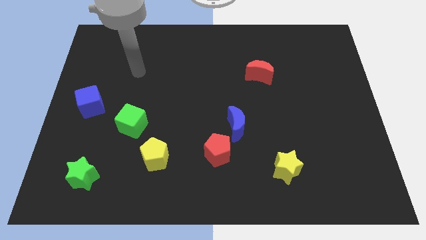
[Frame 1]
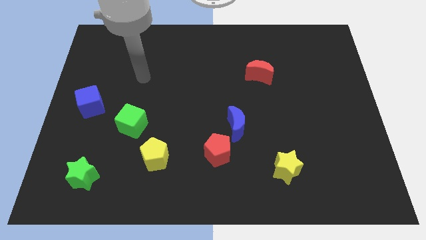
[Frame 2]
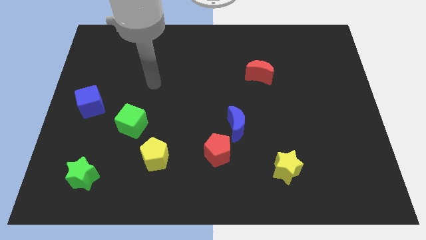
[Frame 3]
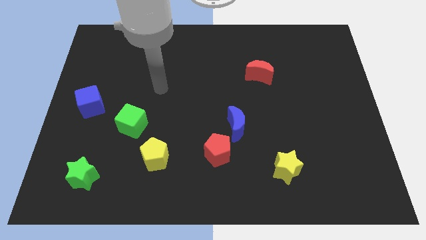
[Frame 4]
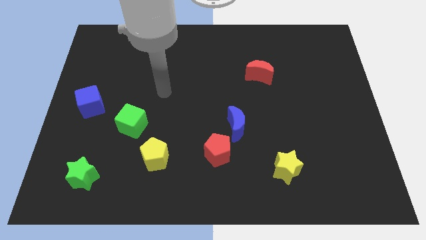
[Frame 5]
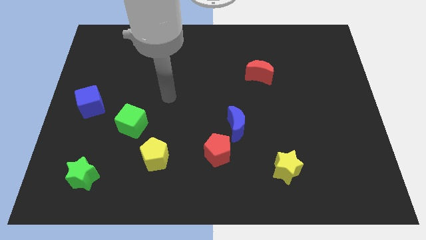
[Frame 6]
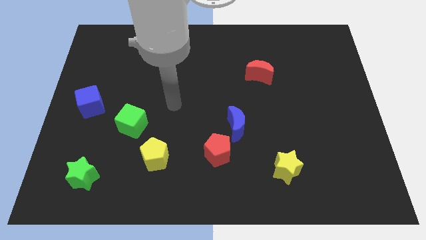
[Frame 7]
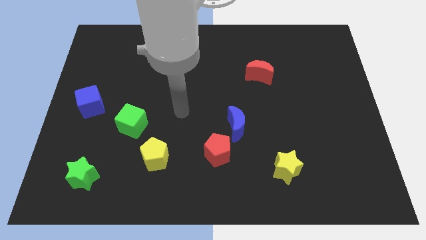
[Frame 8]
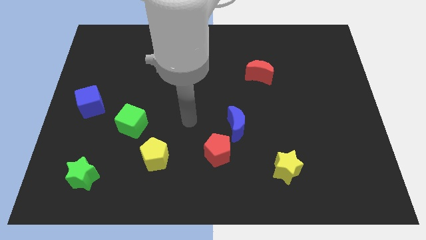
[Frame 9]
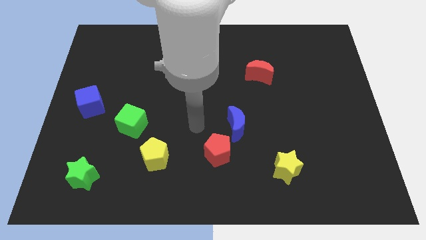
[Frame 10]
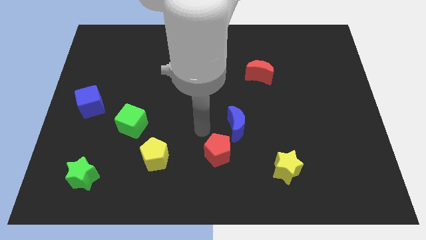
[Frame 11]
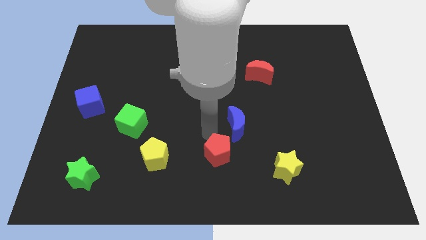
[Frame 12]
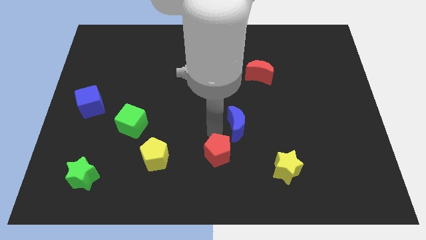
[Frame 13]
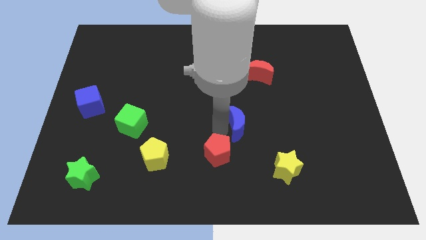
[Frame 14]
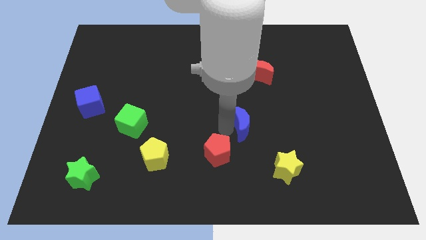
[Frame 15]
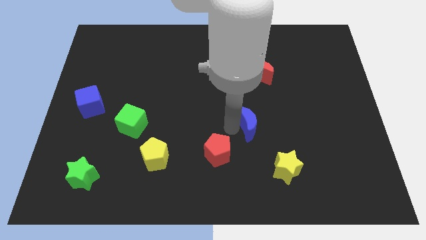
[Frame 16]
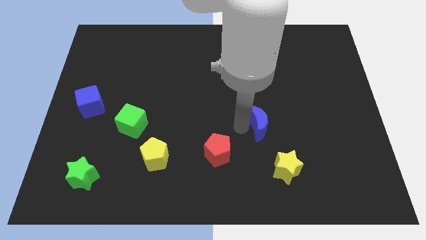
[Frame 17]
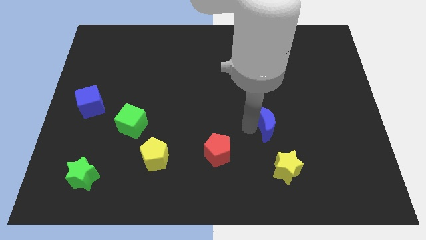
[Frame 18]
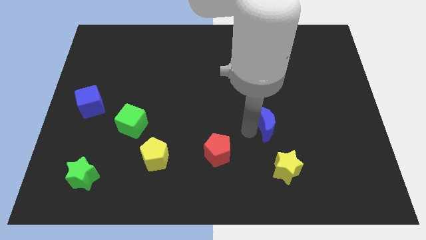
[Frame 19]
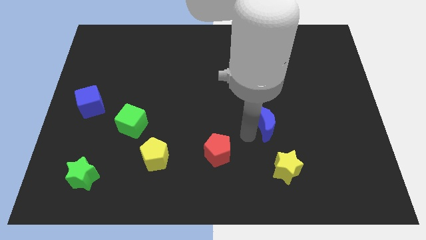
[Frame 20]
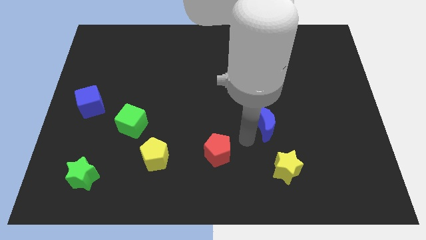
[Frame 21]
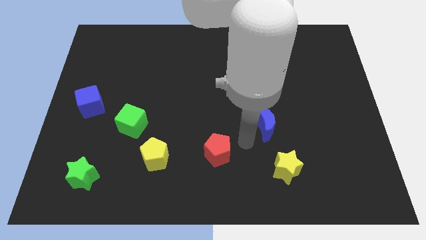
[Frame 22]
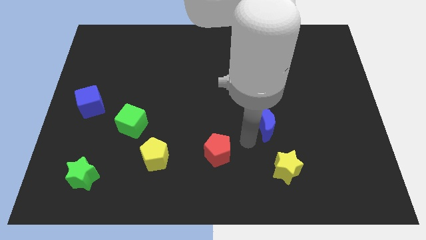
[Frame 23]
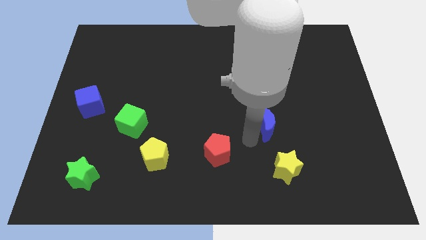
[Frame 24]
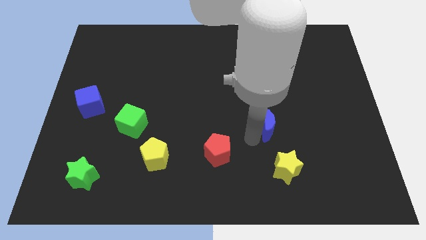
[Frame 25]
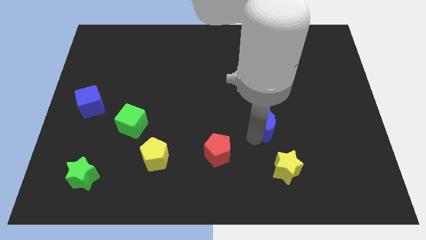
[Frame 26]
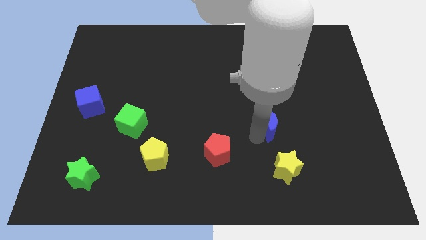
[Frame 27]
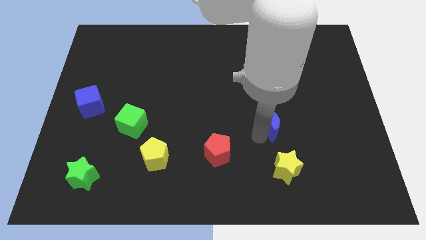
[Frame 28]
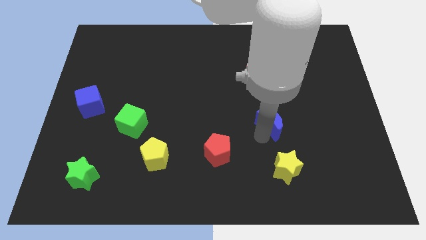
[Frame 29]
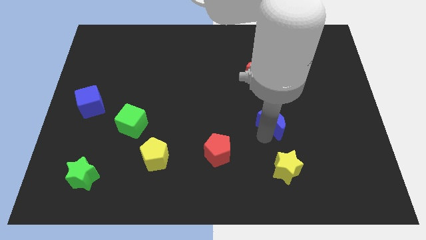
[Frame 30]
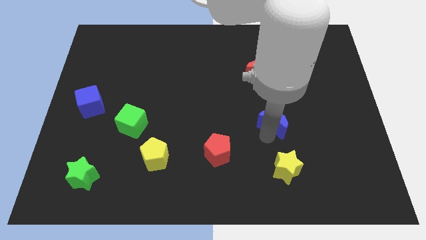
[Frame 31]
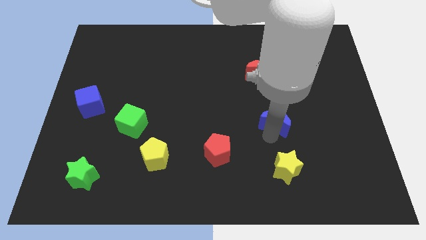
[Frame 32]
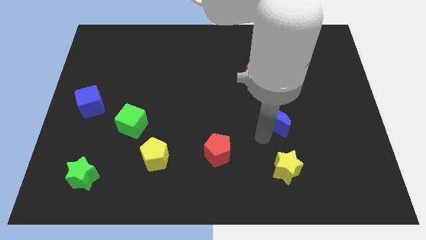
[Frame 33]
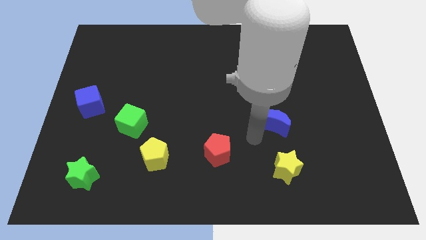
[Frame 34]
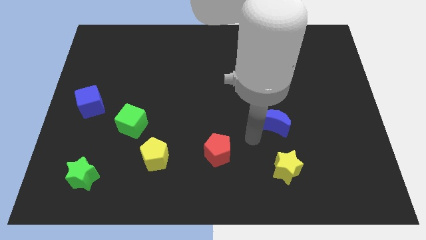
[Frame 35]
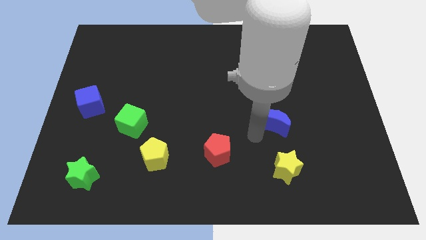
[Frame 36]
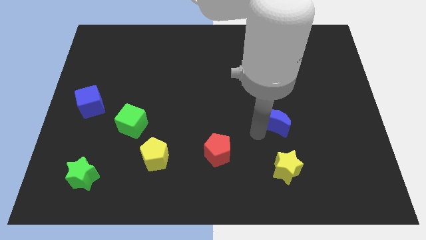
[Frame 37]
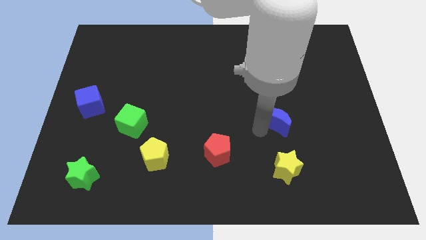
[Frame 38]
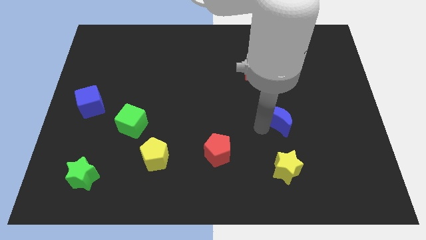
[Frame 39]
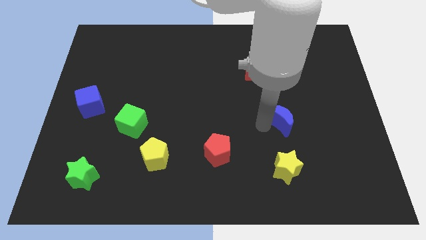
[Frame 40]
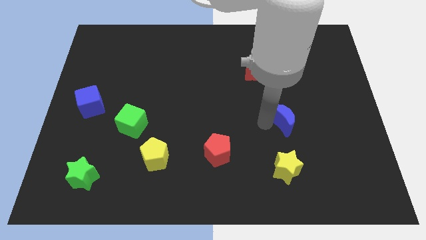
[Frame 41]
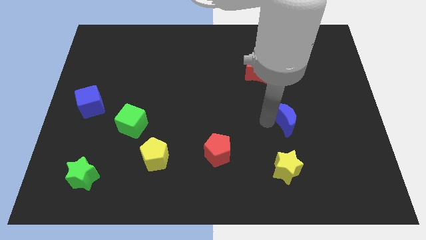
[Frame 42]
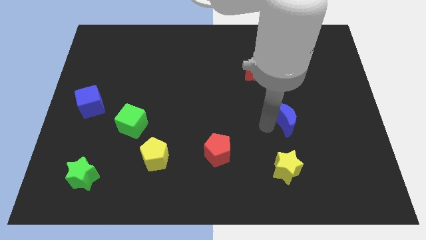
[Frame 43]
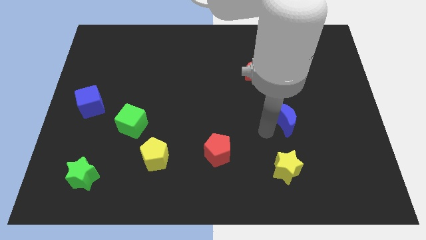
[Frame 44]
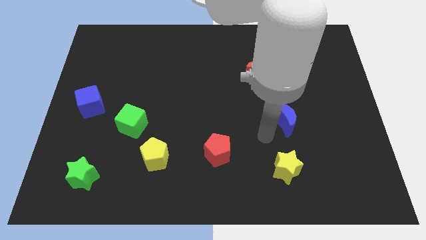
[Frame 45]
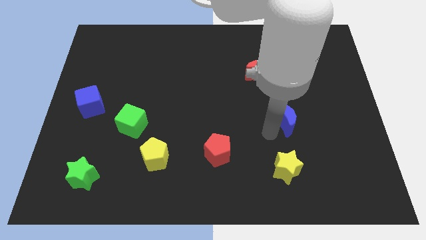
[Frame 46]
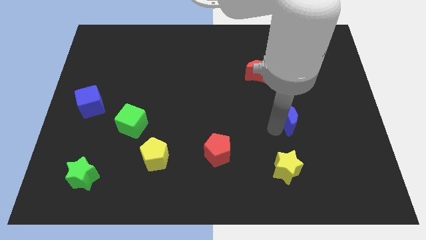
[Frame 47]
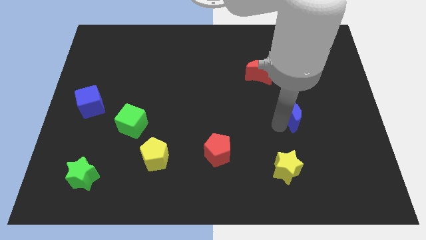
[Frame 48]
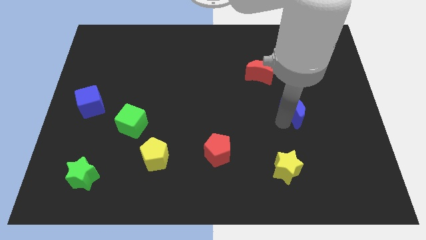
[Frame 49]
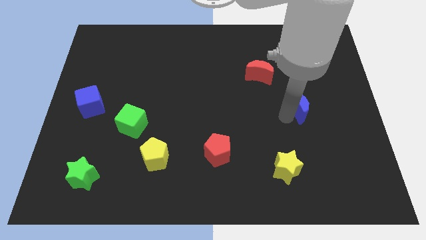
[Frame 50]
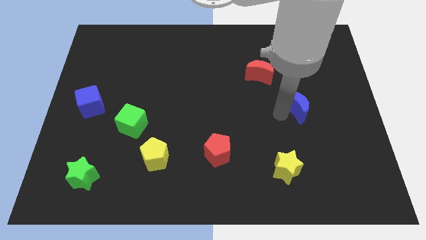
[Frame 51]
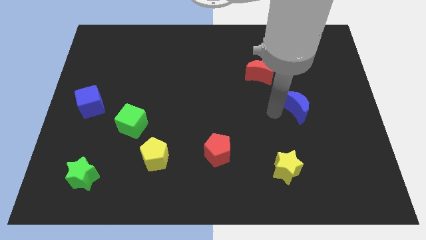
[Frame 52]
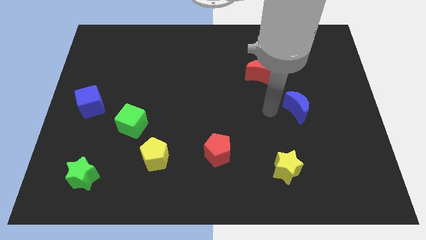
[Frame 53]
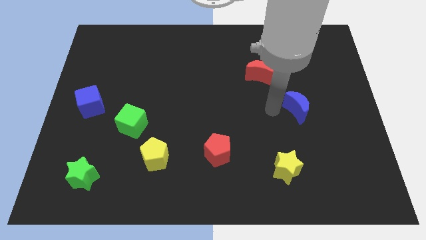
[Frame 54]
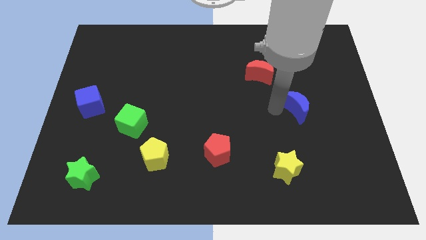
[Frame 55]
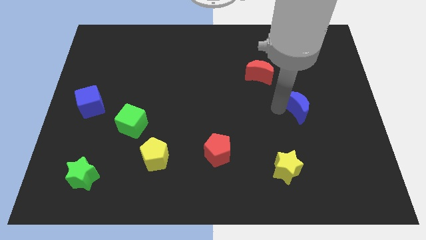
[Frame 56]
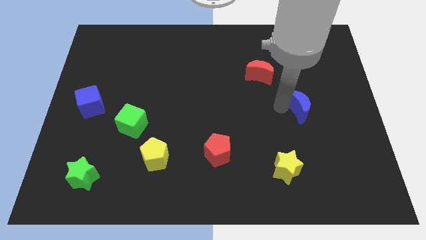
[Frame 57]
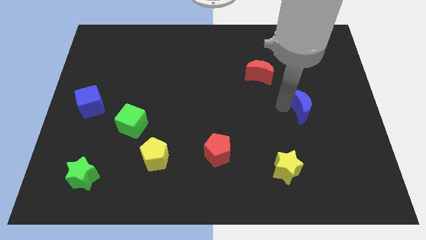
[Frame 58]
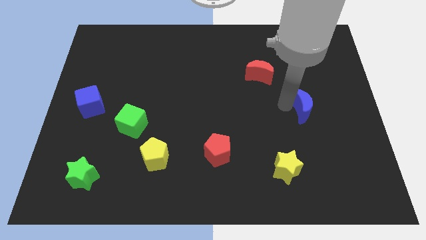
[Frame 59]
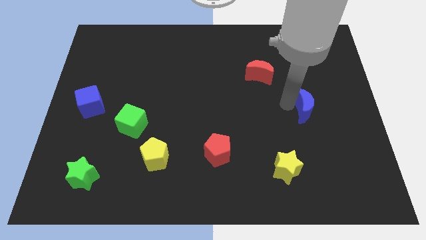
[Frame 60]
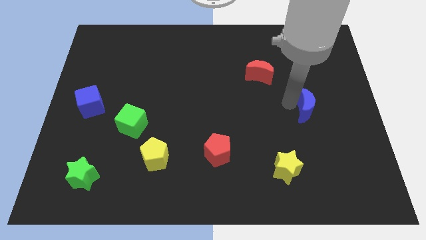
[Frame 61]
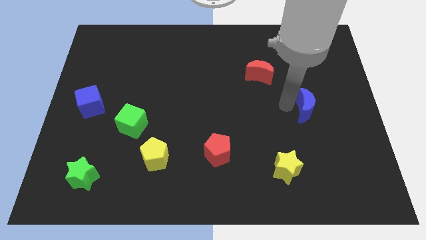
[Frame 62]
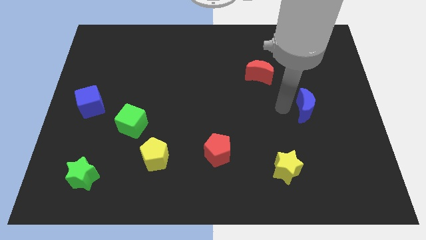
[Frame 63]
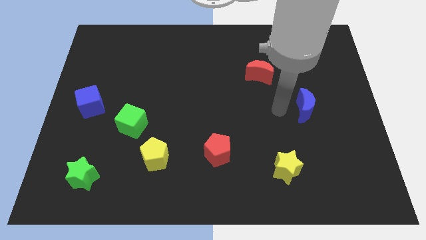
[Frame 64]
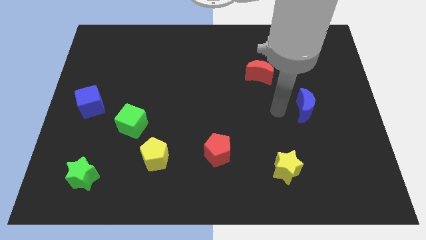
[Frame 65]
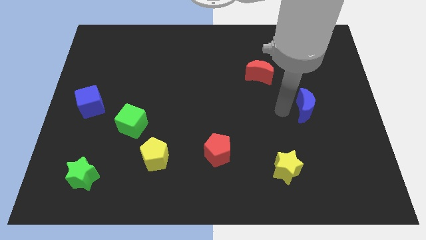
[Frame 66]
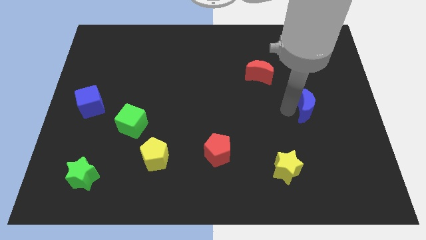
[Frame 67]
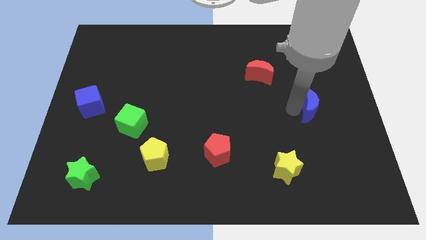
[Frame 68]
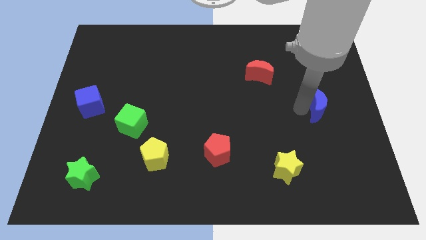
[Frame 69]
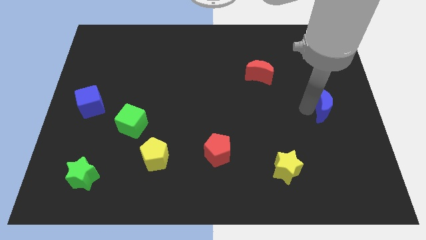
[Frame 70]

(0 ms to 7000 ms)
push the blue moon to the right side
